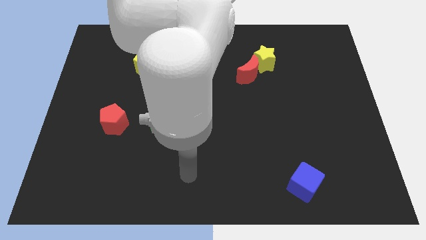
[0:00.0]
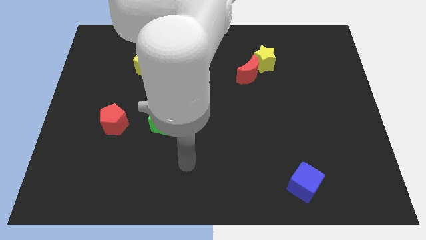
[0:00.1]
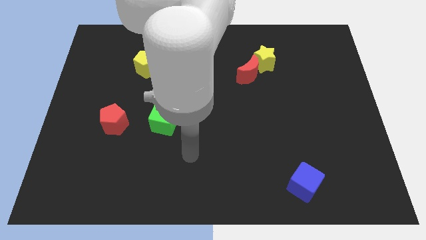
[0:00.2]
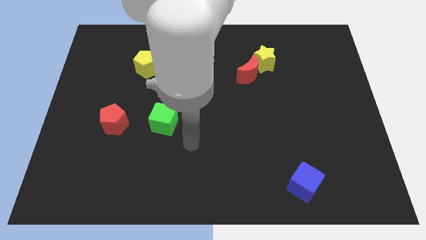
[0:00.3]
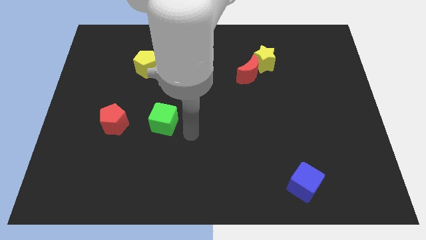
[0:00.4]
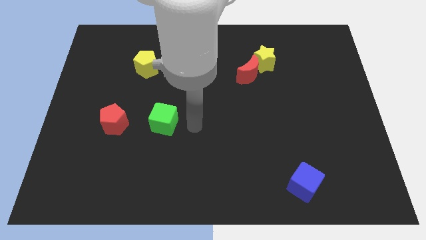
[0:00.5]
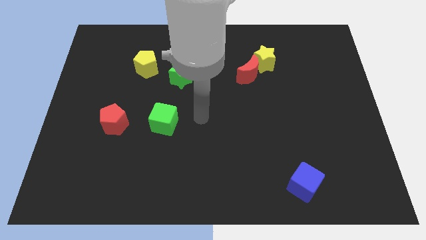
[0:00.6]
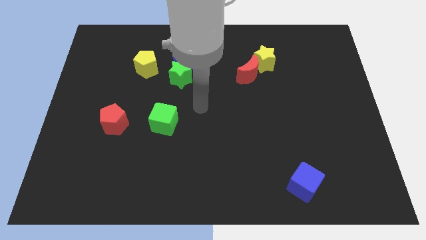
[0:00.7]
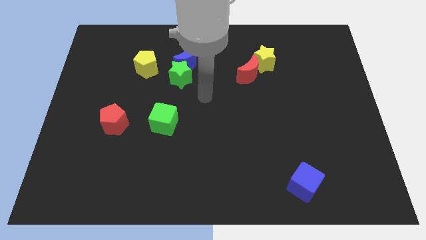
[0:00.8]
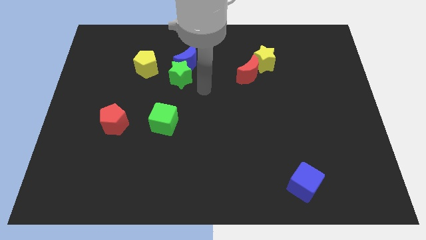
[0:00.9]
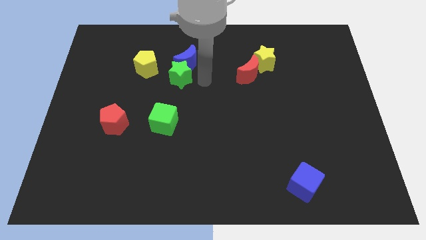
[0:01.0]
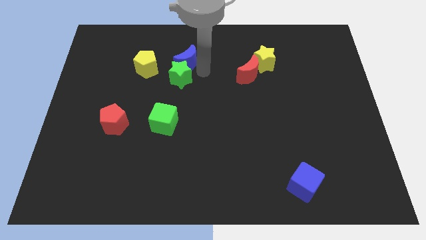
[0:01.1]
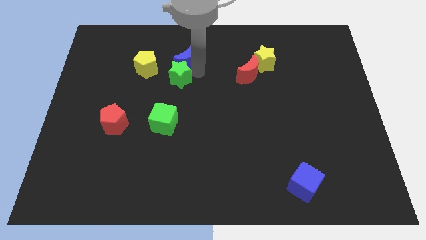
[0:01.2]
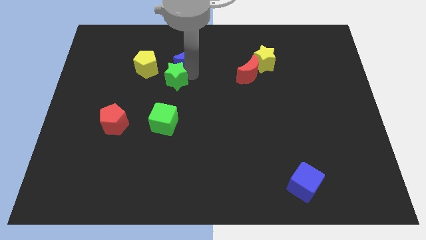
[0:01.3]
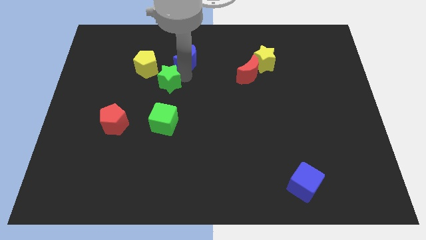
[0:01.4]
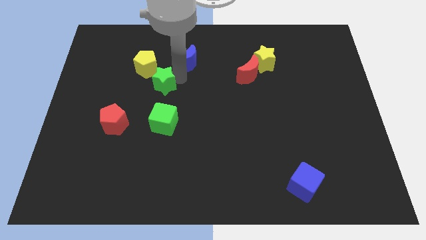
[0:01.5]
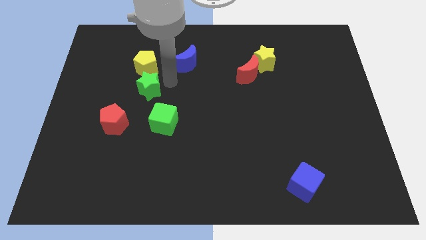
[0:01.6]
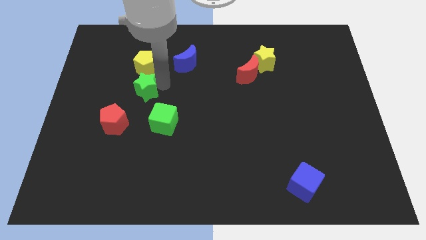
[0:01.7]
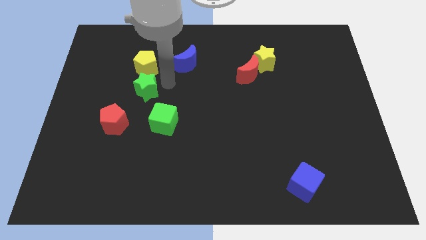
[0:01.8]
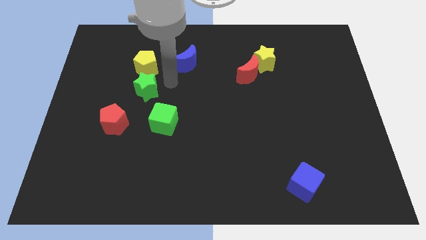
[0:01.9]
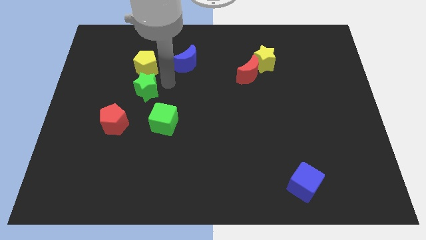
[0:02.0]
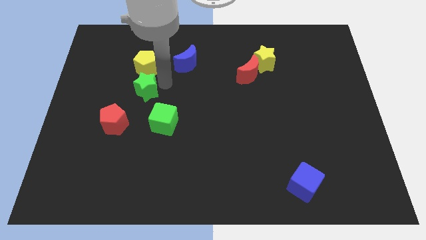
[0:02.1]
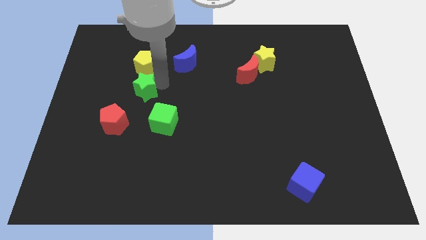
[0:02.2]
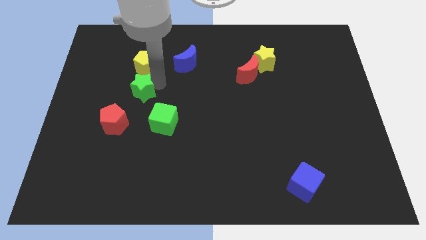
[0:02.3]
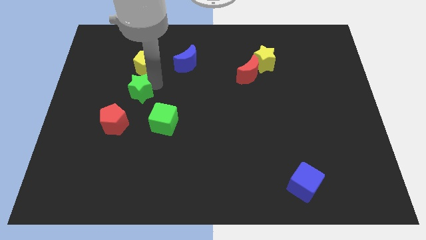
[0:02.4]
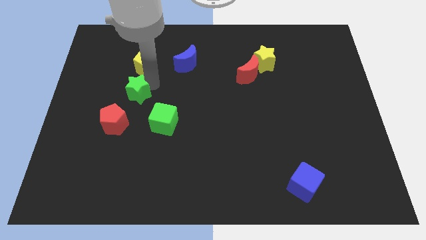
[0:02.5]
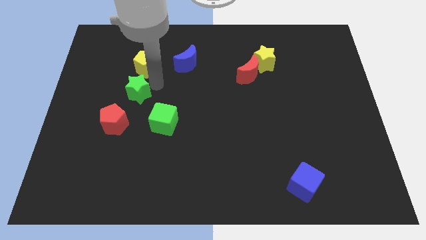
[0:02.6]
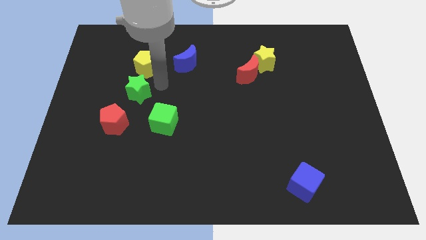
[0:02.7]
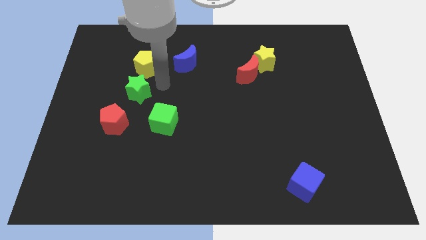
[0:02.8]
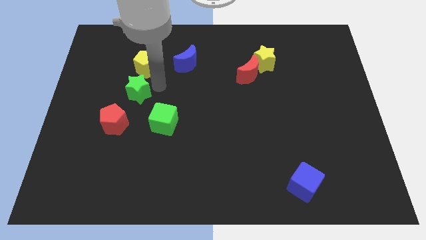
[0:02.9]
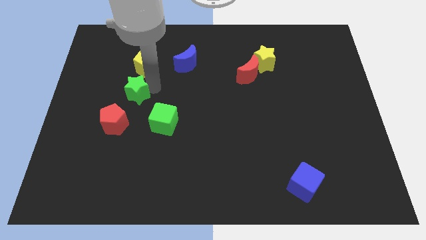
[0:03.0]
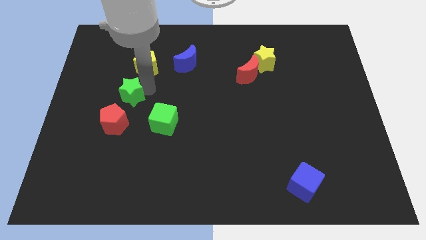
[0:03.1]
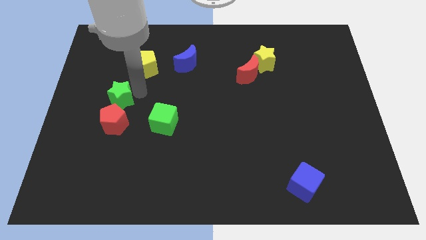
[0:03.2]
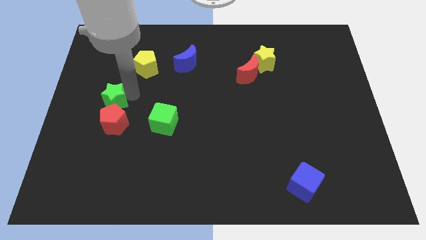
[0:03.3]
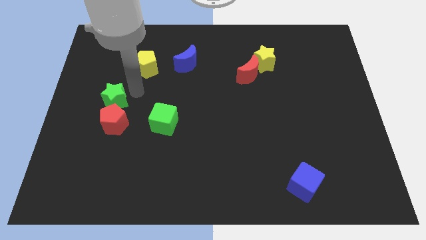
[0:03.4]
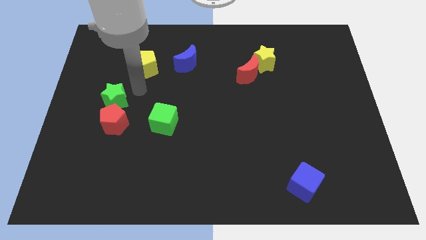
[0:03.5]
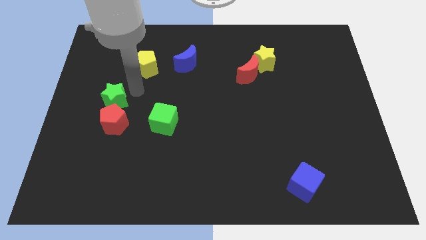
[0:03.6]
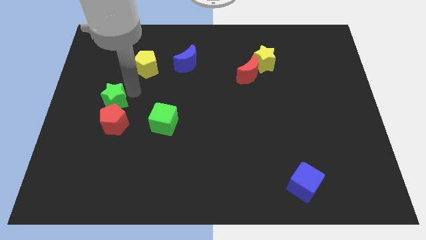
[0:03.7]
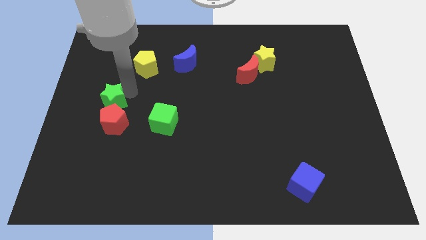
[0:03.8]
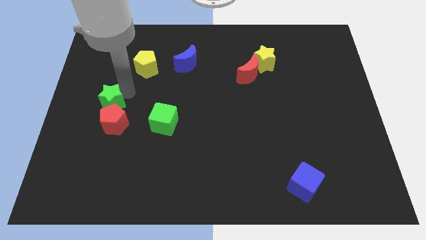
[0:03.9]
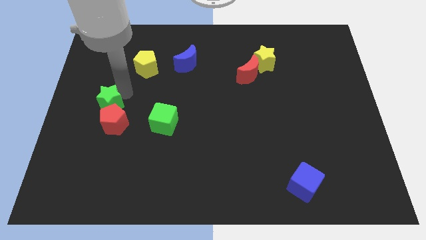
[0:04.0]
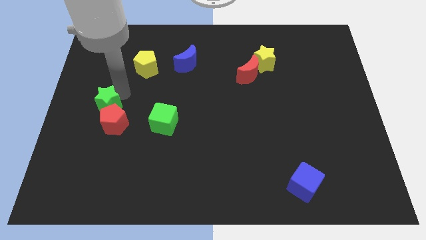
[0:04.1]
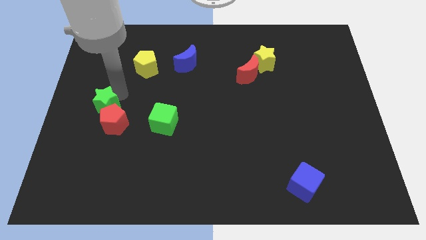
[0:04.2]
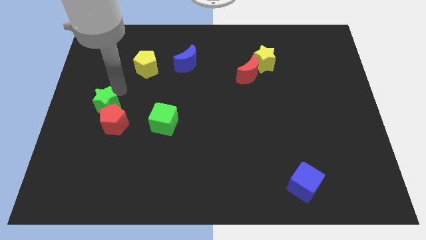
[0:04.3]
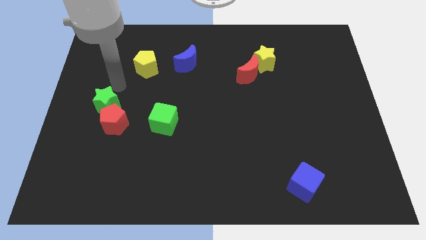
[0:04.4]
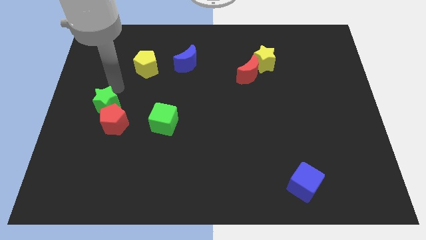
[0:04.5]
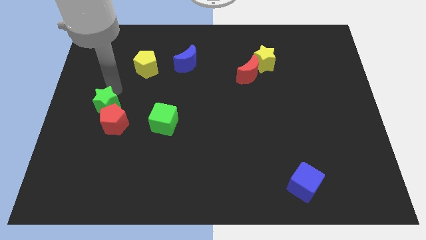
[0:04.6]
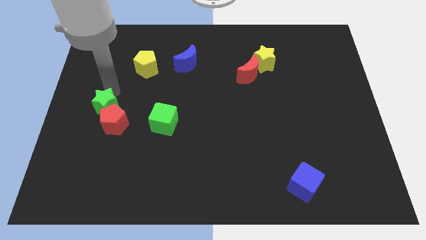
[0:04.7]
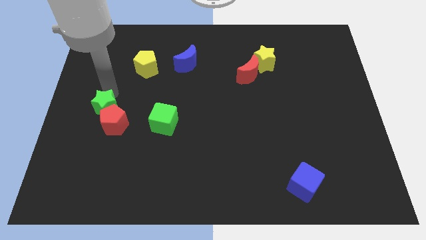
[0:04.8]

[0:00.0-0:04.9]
move the green star to the left of the green cube

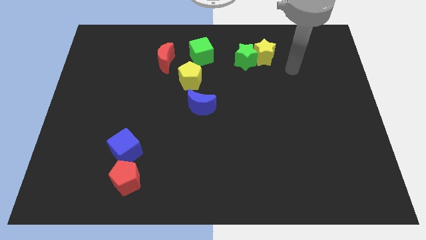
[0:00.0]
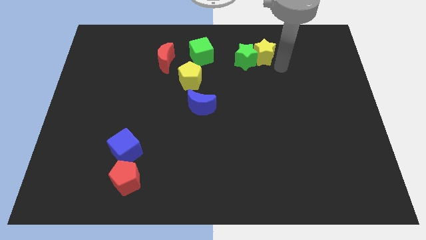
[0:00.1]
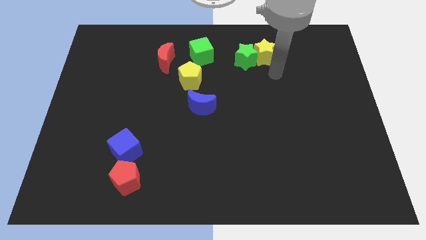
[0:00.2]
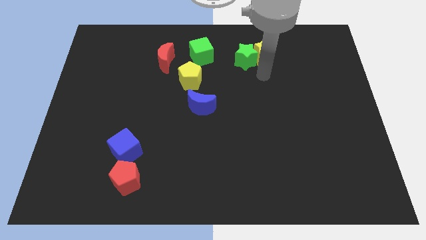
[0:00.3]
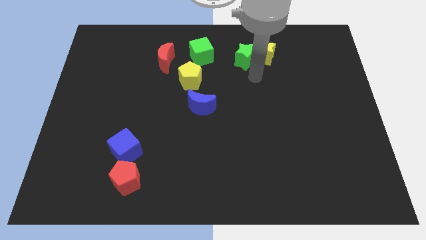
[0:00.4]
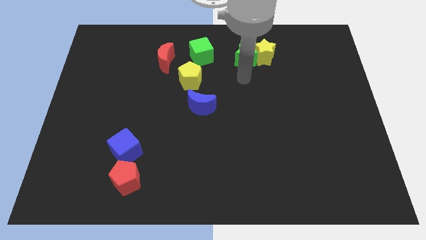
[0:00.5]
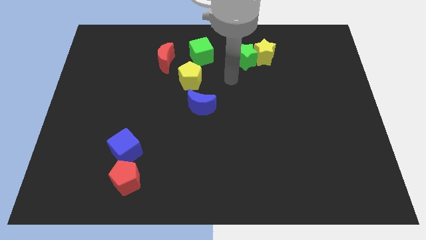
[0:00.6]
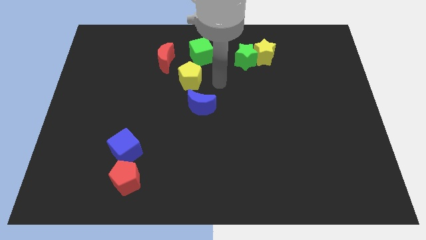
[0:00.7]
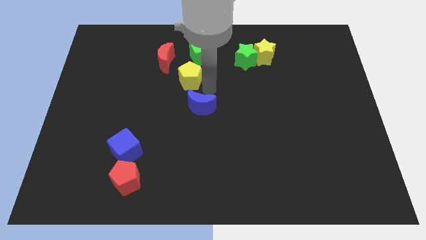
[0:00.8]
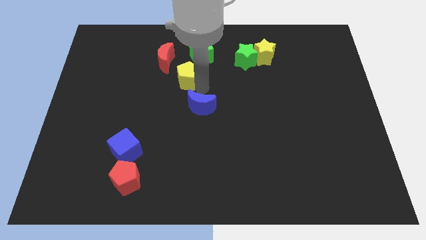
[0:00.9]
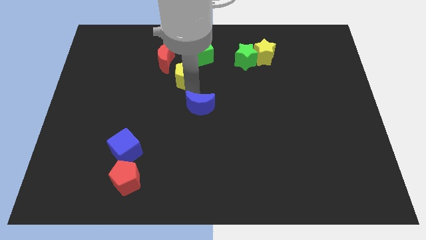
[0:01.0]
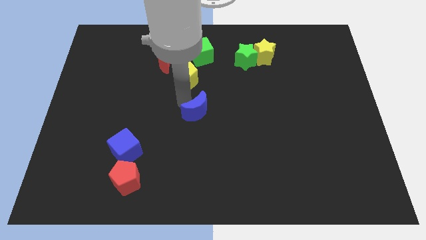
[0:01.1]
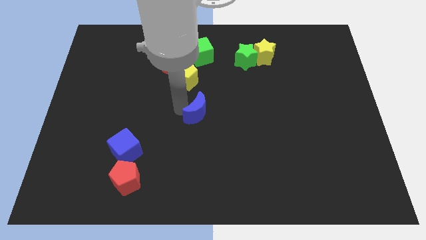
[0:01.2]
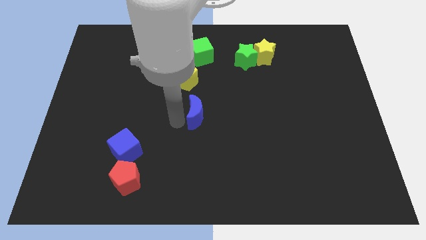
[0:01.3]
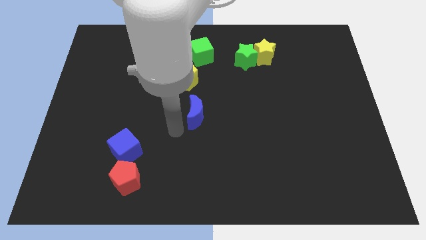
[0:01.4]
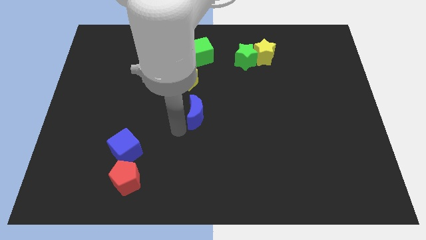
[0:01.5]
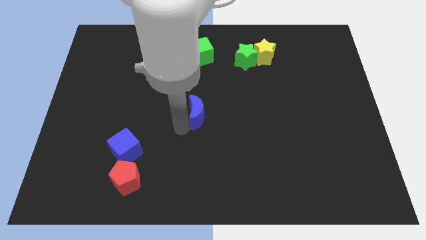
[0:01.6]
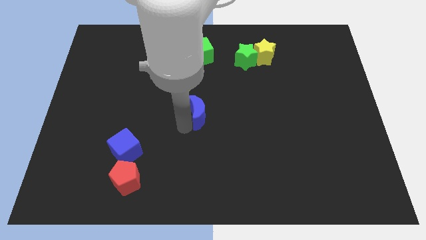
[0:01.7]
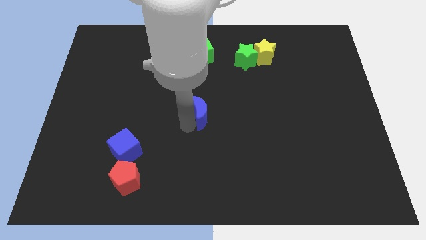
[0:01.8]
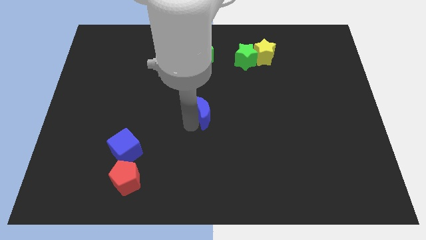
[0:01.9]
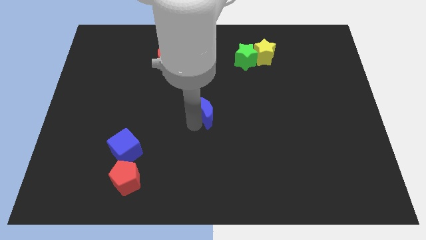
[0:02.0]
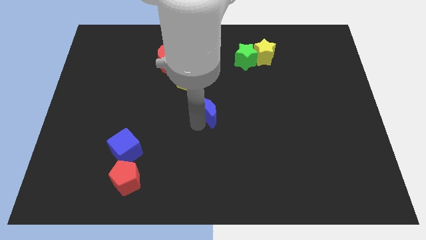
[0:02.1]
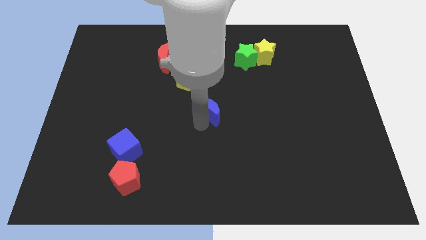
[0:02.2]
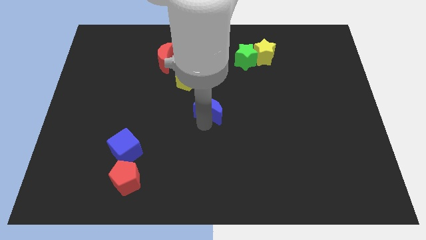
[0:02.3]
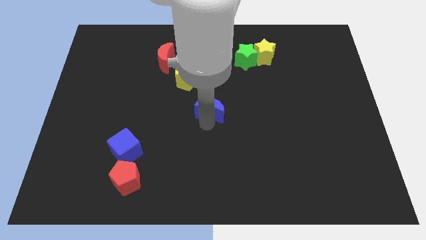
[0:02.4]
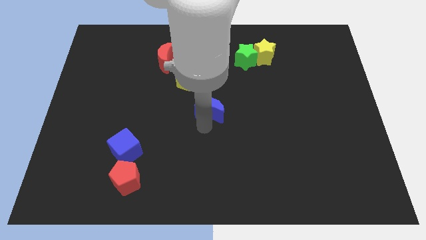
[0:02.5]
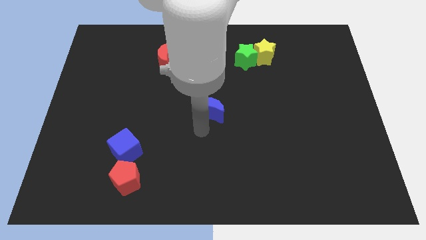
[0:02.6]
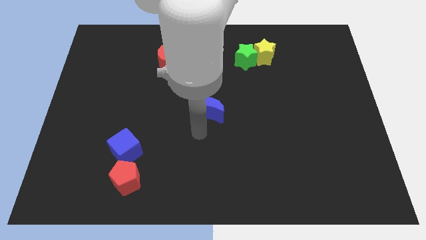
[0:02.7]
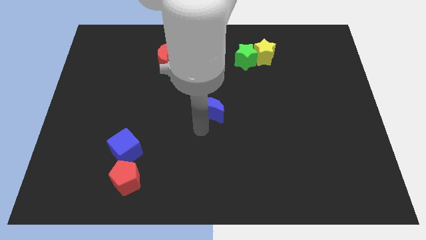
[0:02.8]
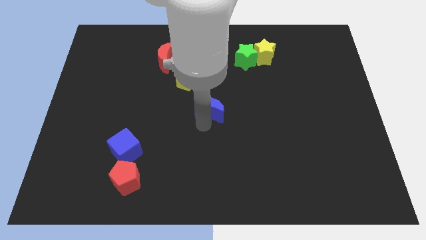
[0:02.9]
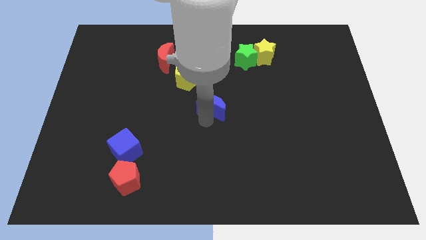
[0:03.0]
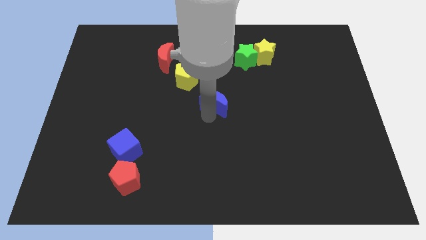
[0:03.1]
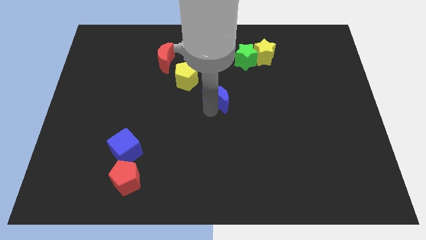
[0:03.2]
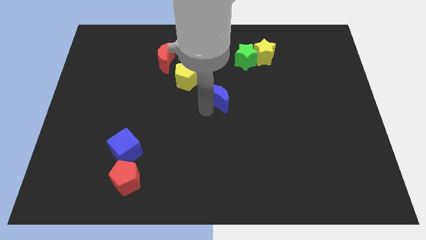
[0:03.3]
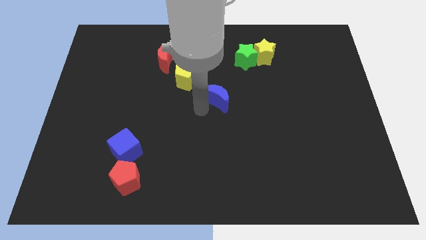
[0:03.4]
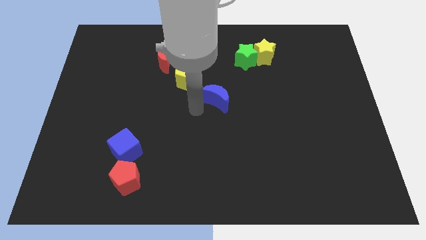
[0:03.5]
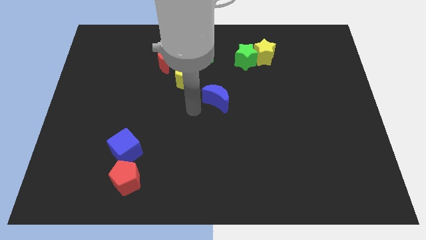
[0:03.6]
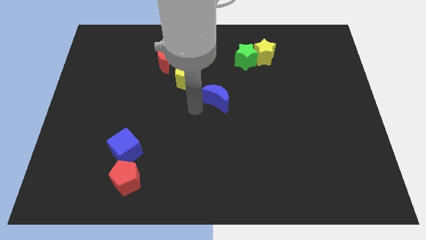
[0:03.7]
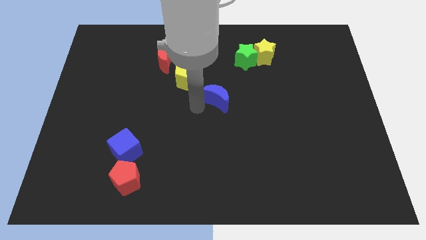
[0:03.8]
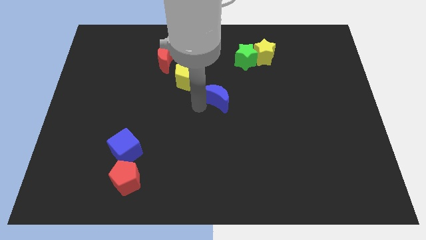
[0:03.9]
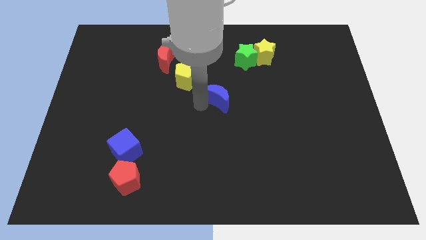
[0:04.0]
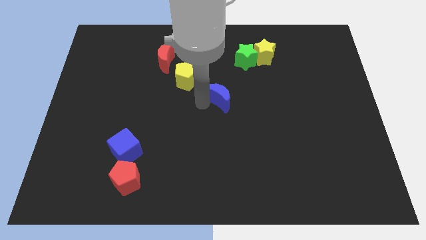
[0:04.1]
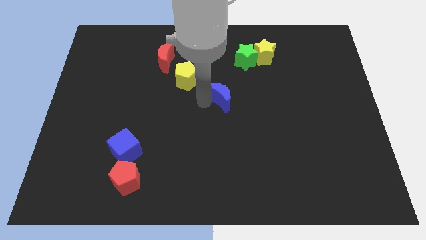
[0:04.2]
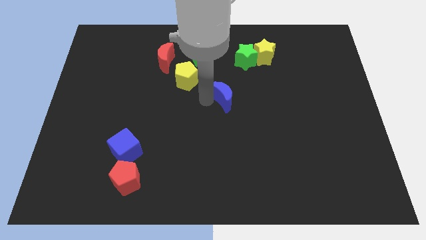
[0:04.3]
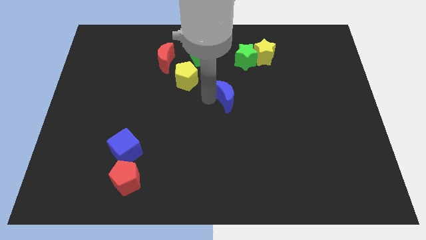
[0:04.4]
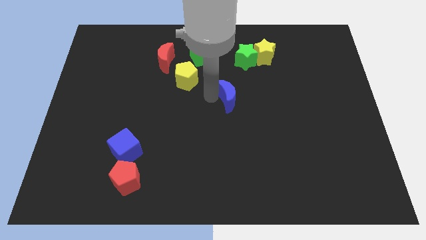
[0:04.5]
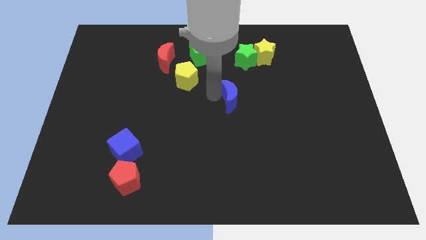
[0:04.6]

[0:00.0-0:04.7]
push the blue moon to the bottom side of the green star
